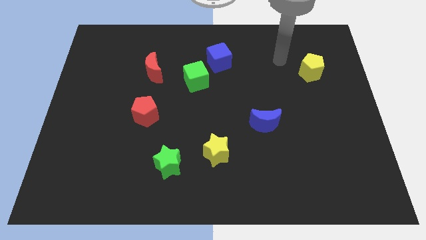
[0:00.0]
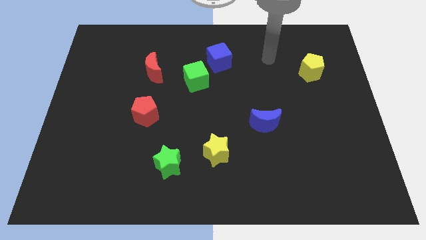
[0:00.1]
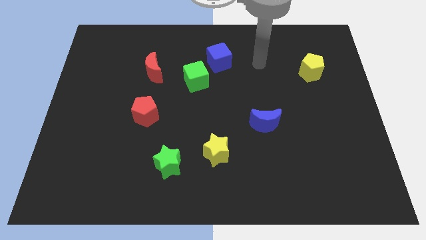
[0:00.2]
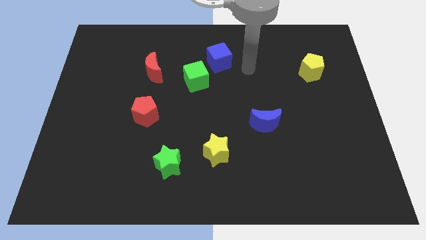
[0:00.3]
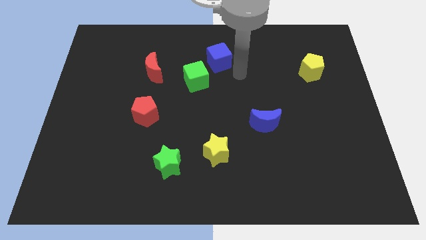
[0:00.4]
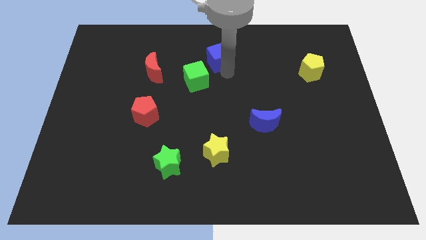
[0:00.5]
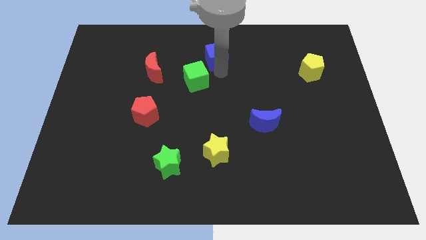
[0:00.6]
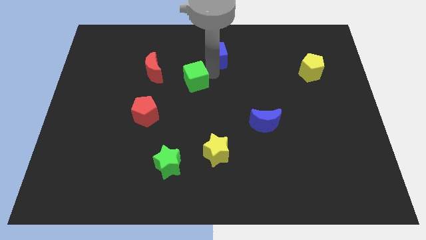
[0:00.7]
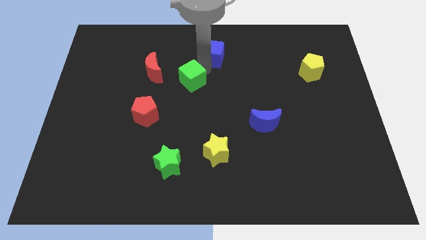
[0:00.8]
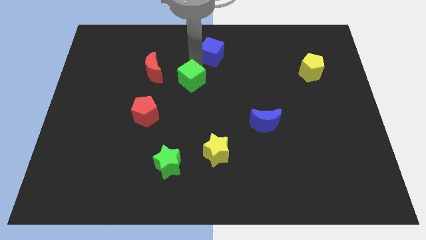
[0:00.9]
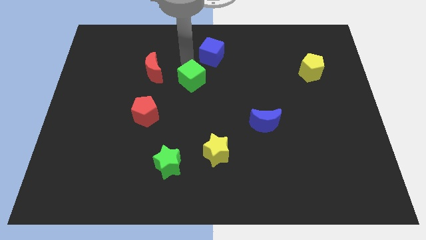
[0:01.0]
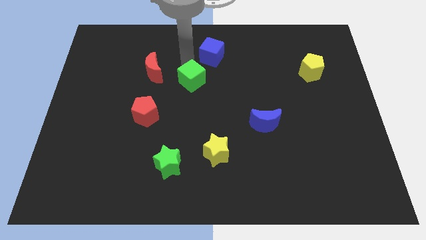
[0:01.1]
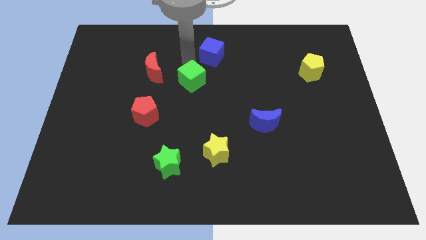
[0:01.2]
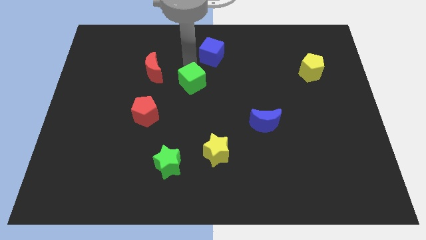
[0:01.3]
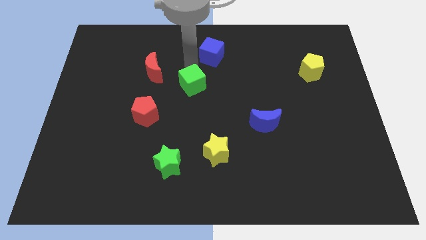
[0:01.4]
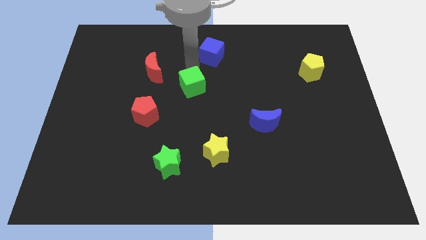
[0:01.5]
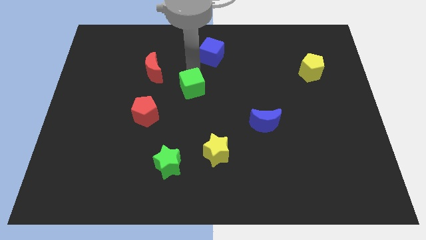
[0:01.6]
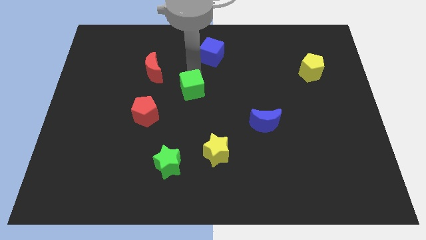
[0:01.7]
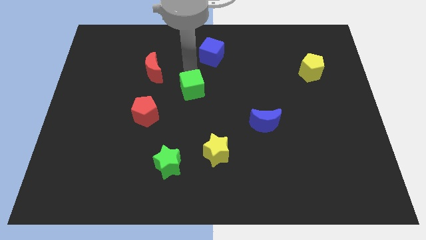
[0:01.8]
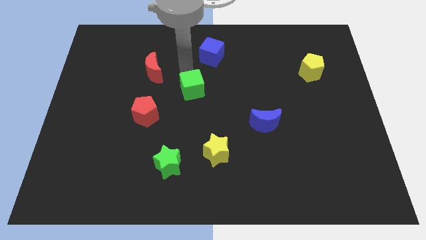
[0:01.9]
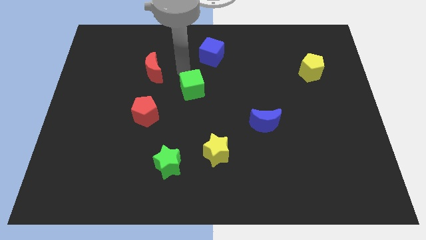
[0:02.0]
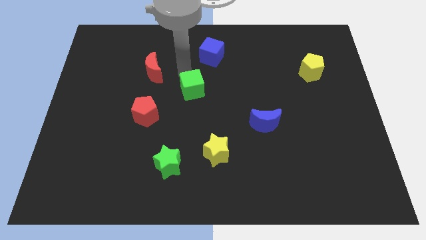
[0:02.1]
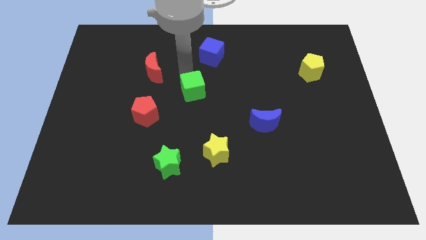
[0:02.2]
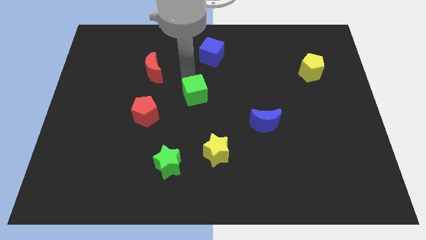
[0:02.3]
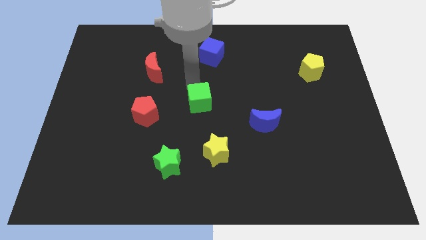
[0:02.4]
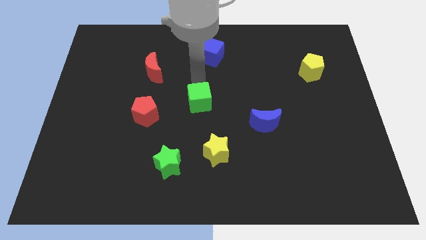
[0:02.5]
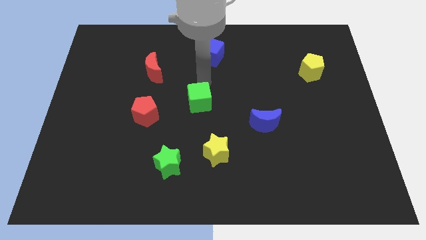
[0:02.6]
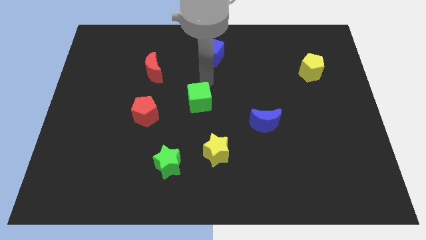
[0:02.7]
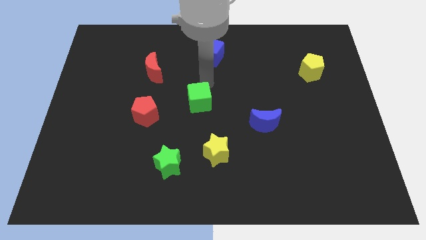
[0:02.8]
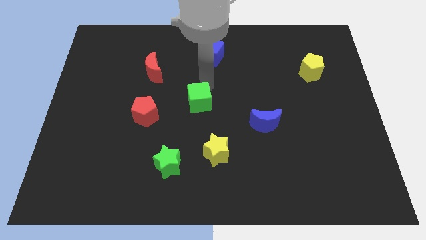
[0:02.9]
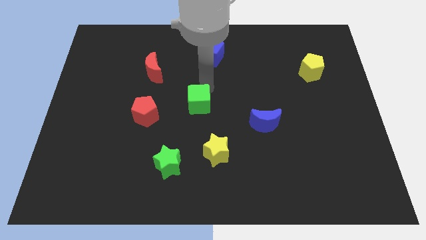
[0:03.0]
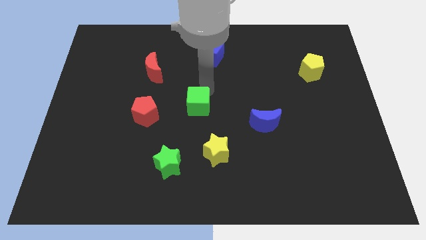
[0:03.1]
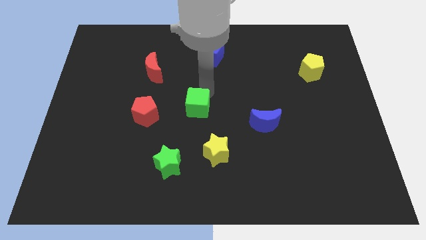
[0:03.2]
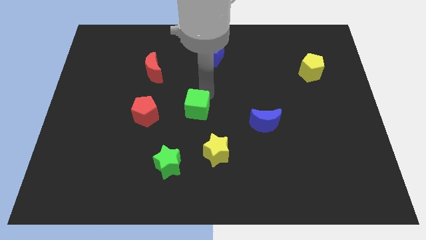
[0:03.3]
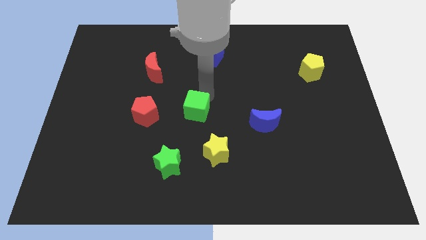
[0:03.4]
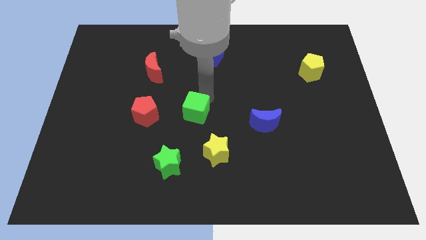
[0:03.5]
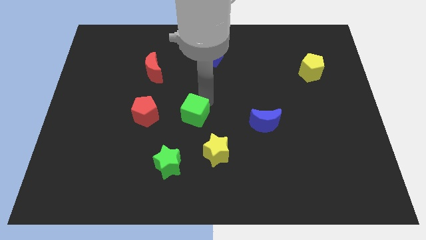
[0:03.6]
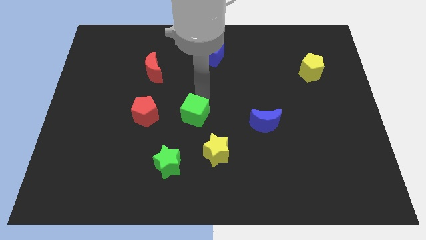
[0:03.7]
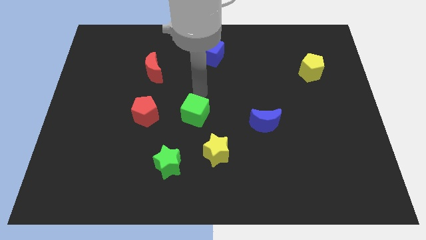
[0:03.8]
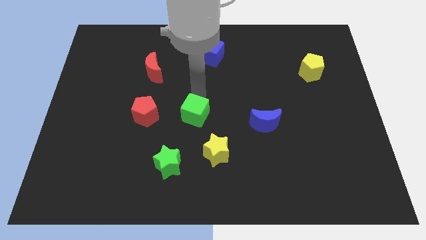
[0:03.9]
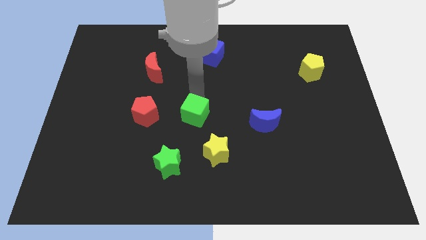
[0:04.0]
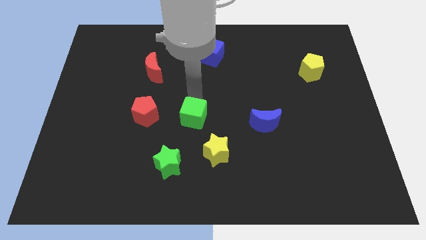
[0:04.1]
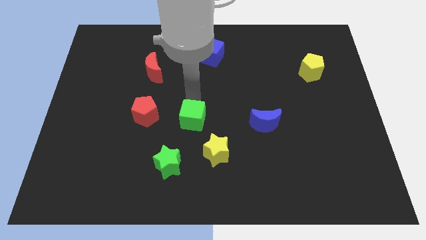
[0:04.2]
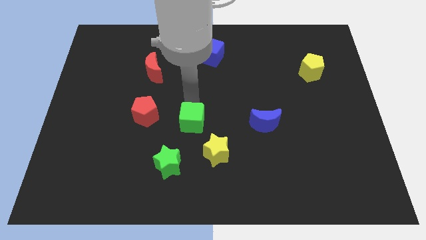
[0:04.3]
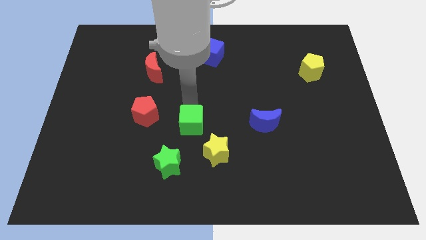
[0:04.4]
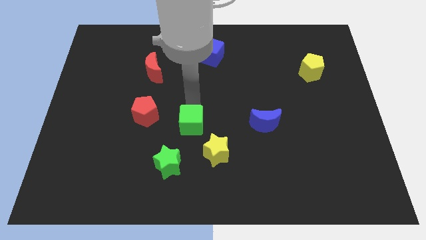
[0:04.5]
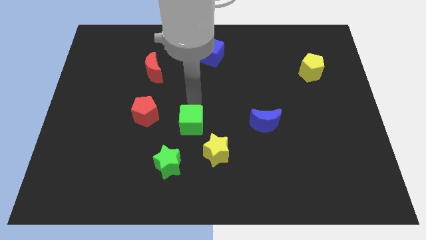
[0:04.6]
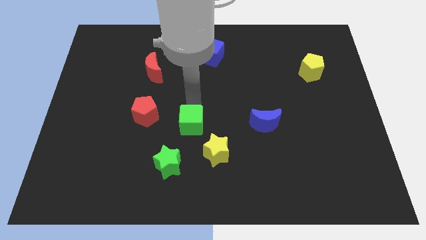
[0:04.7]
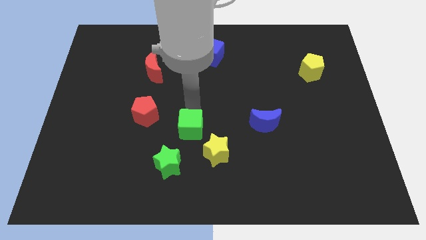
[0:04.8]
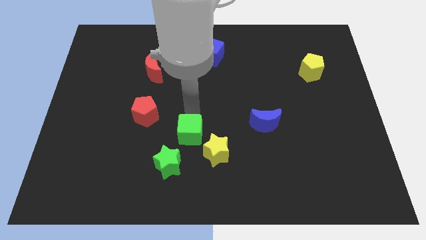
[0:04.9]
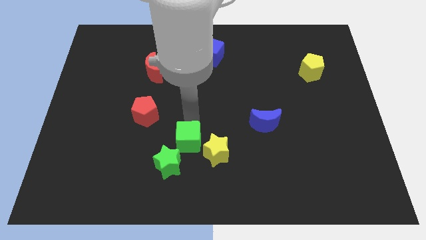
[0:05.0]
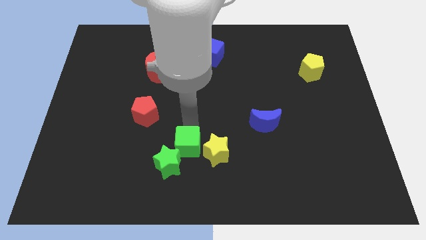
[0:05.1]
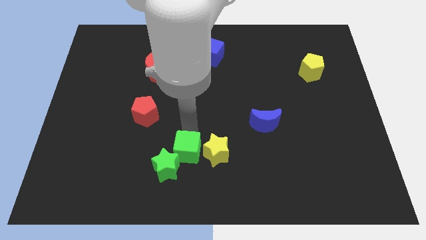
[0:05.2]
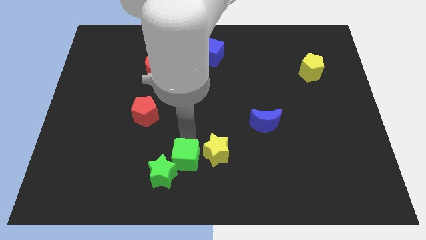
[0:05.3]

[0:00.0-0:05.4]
push the green cube to the bottom
